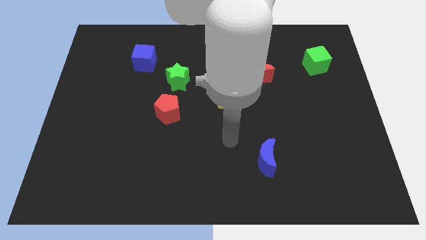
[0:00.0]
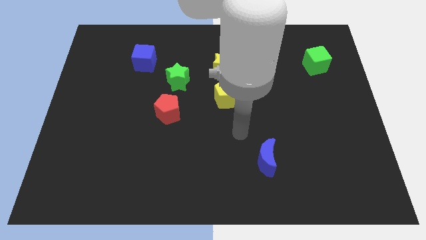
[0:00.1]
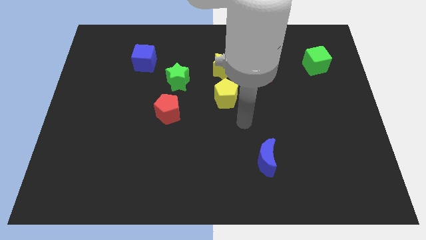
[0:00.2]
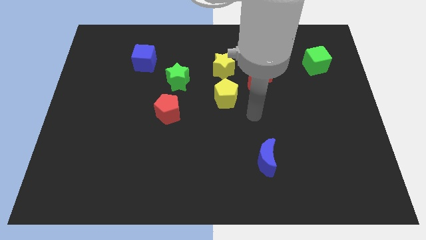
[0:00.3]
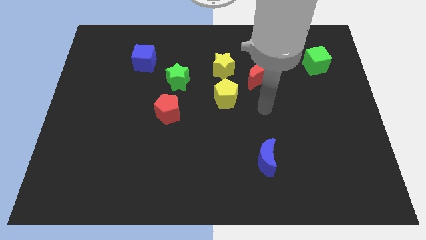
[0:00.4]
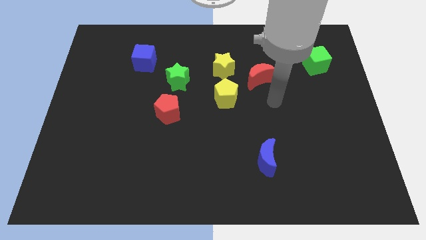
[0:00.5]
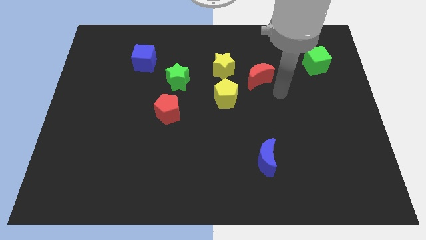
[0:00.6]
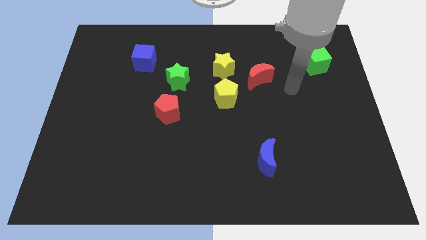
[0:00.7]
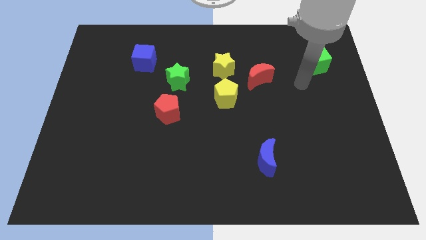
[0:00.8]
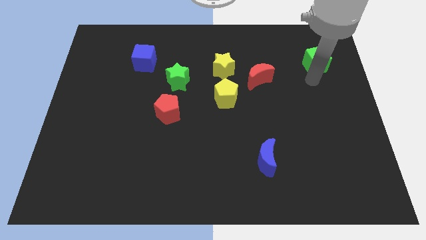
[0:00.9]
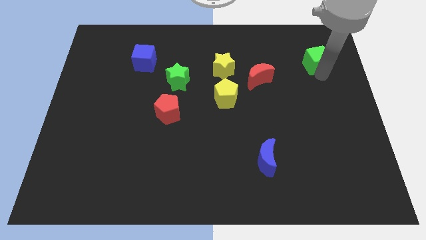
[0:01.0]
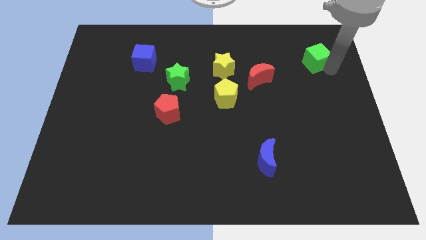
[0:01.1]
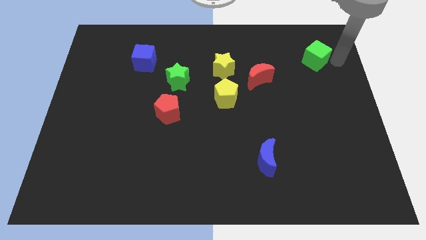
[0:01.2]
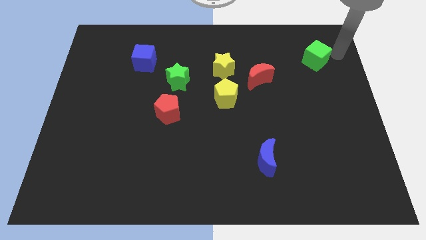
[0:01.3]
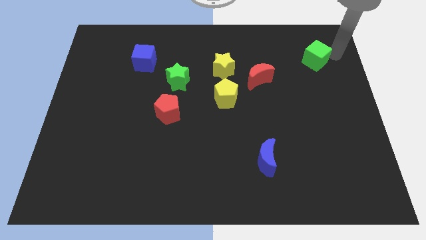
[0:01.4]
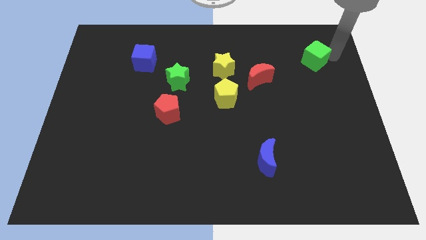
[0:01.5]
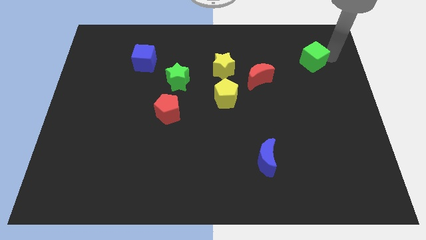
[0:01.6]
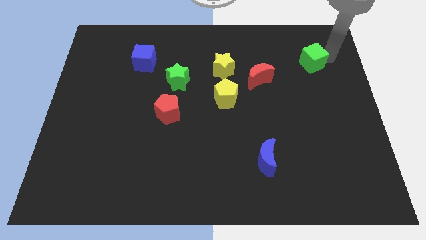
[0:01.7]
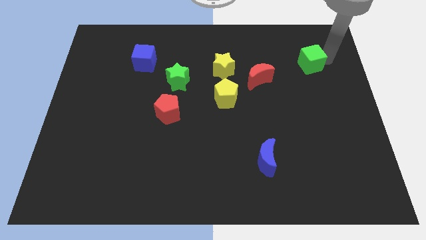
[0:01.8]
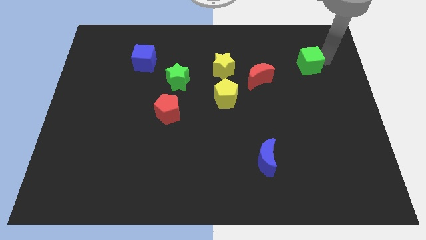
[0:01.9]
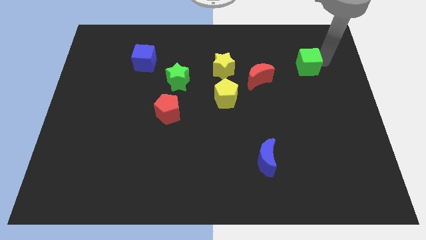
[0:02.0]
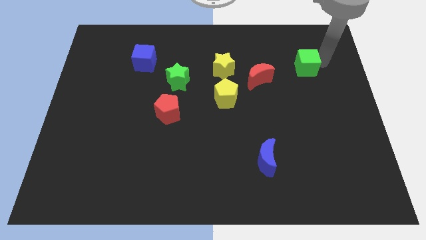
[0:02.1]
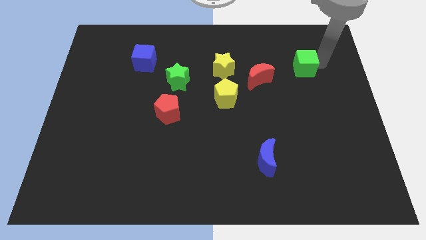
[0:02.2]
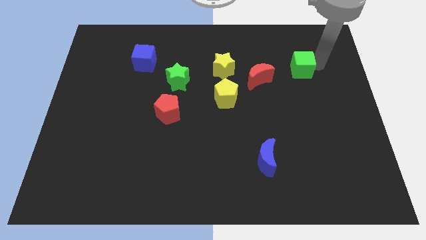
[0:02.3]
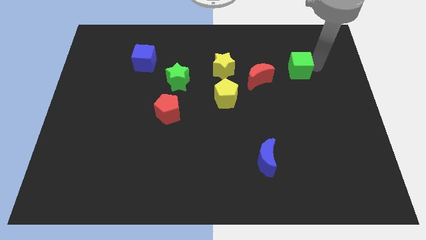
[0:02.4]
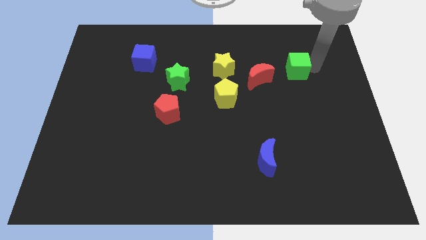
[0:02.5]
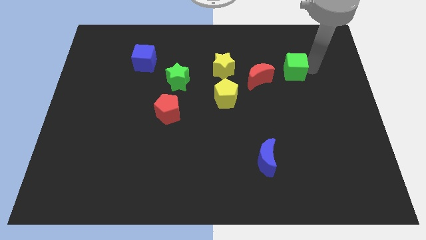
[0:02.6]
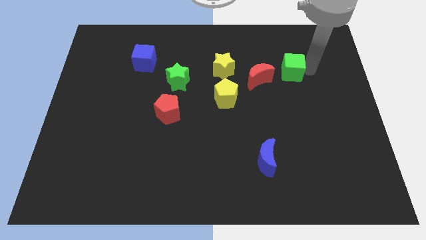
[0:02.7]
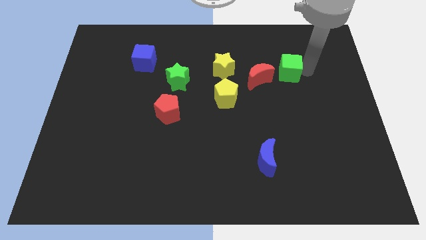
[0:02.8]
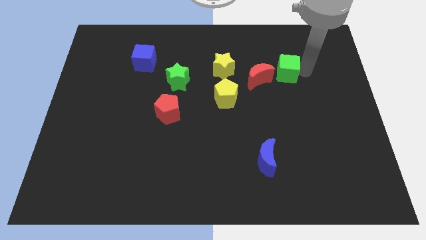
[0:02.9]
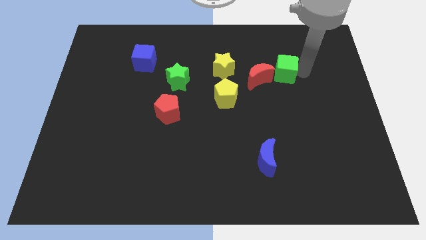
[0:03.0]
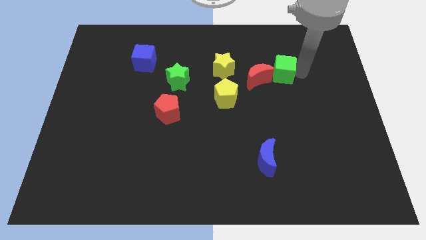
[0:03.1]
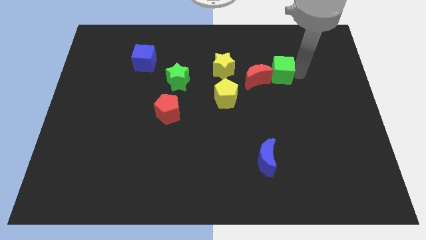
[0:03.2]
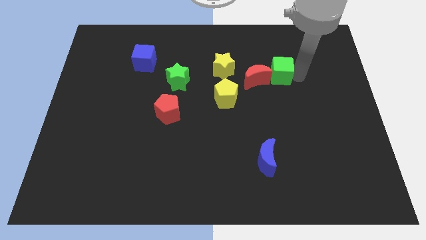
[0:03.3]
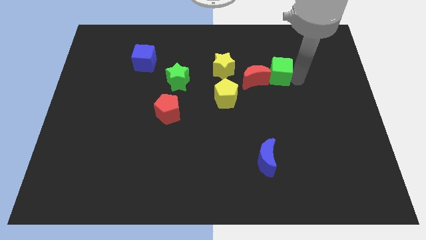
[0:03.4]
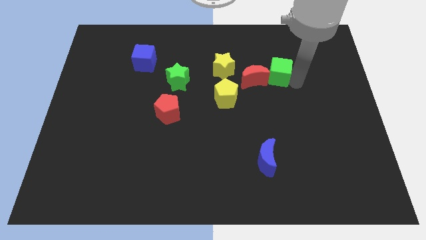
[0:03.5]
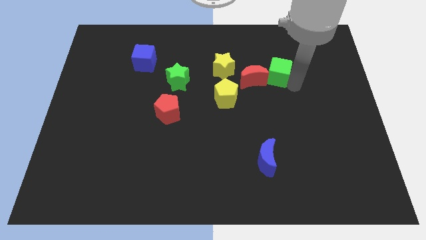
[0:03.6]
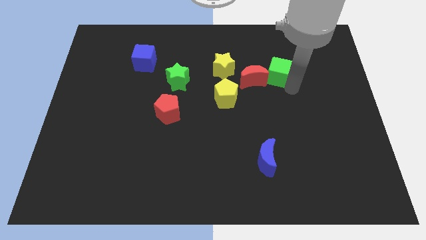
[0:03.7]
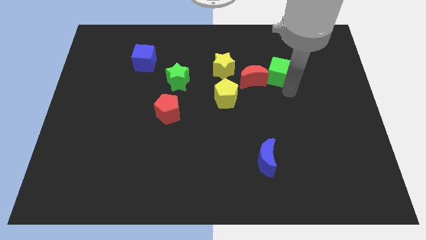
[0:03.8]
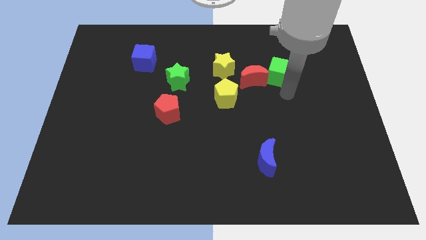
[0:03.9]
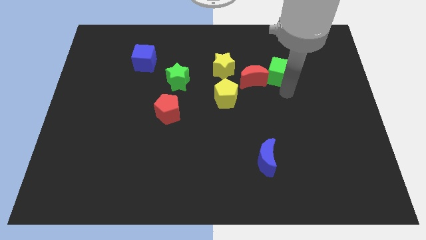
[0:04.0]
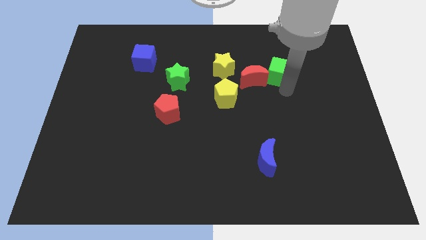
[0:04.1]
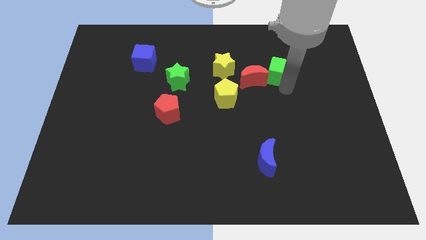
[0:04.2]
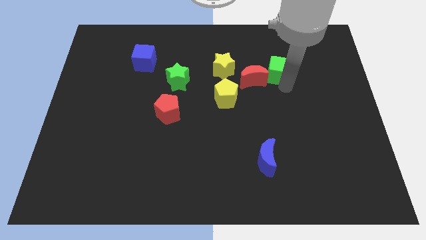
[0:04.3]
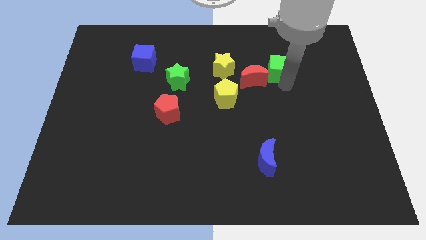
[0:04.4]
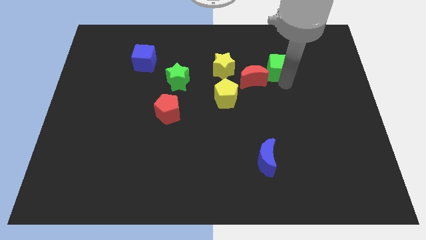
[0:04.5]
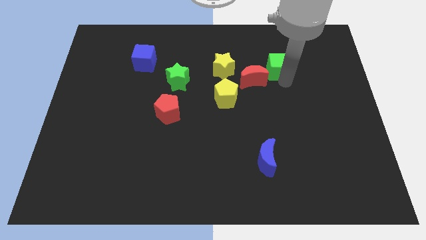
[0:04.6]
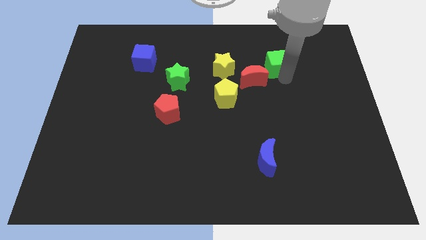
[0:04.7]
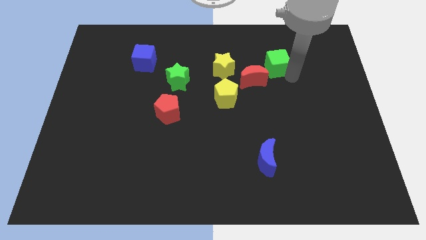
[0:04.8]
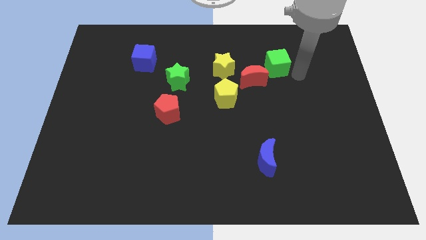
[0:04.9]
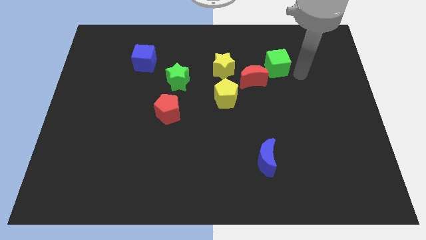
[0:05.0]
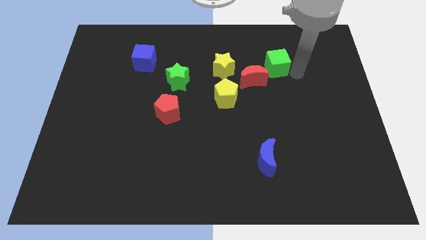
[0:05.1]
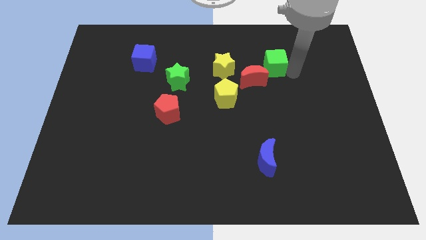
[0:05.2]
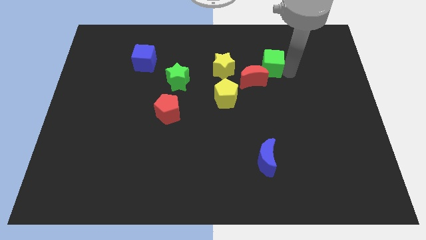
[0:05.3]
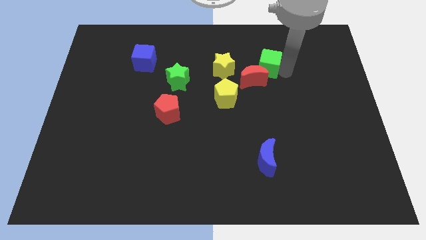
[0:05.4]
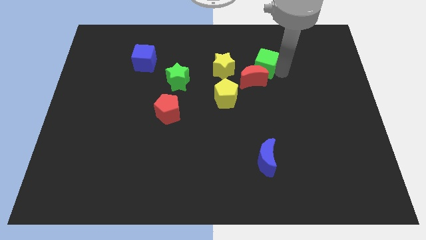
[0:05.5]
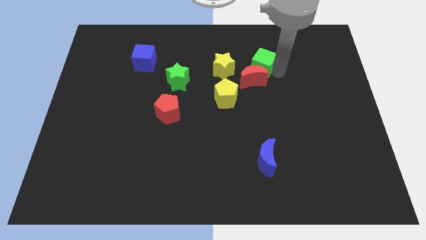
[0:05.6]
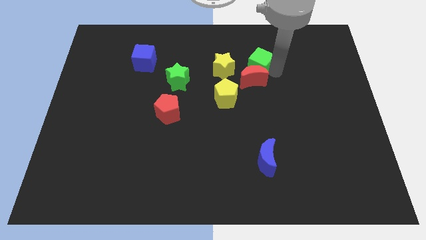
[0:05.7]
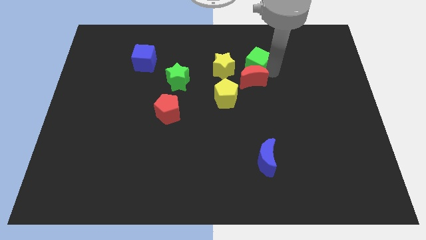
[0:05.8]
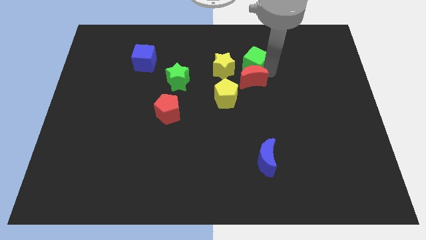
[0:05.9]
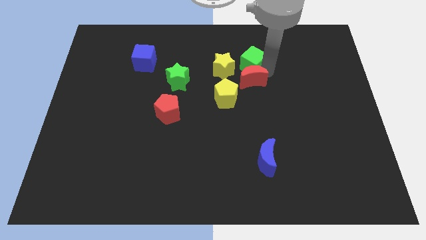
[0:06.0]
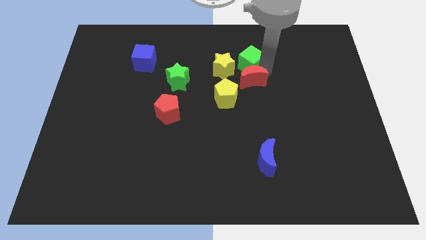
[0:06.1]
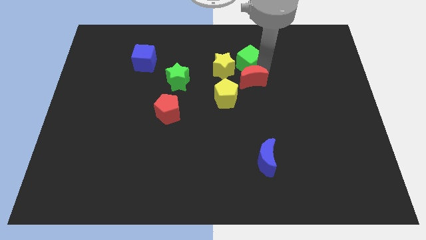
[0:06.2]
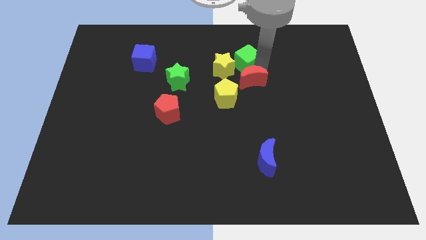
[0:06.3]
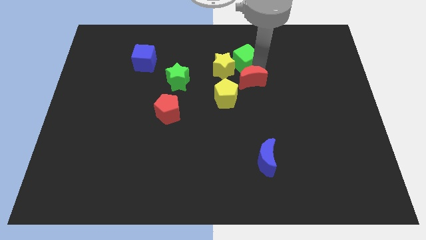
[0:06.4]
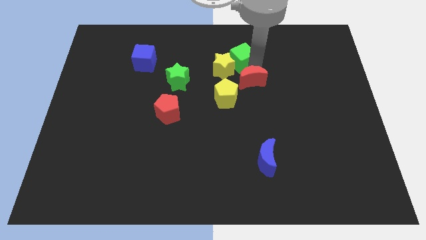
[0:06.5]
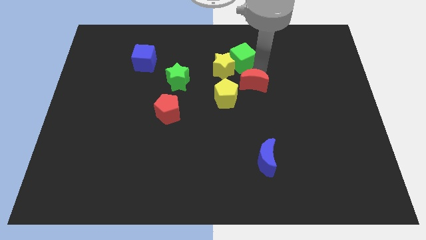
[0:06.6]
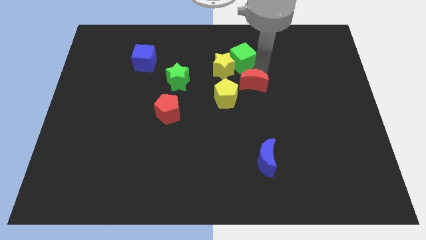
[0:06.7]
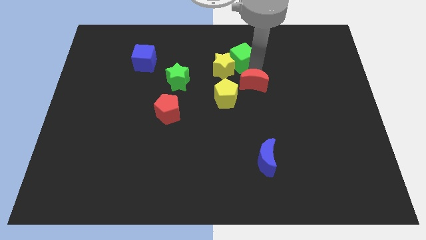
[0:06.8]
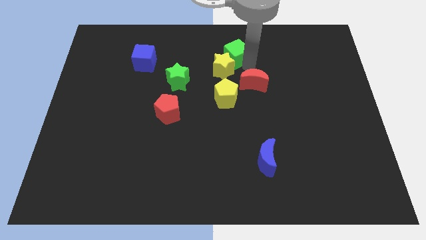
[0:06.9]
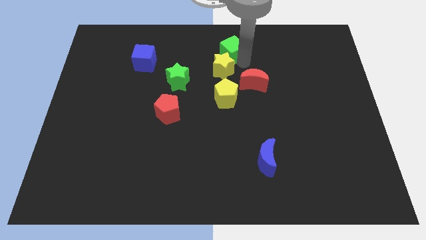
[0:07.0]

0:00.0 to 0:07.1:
put the green cube to the towards your base
